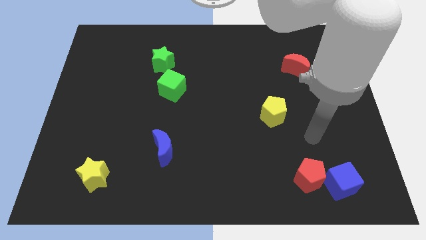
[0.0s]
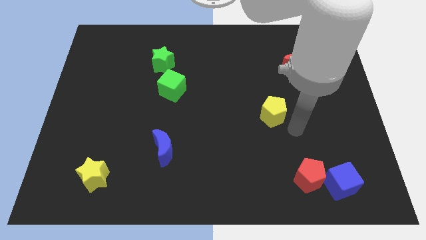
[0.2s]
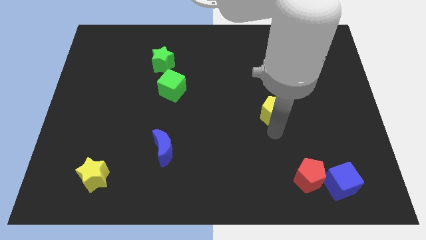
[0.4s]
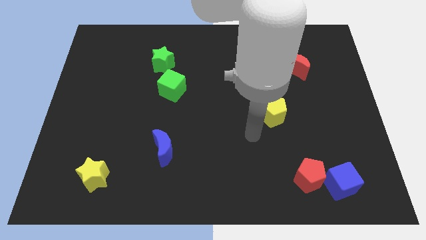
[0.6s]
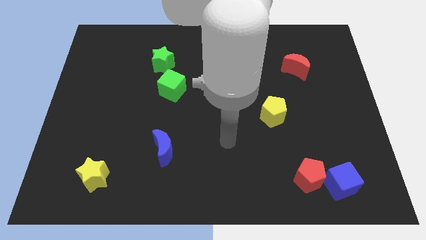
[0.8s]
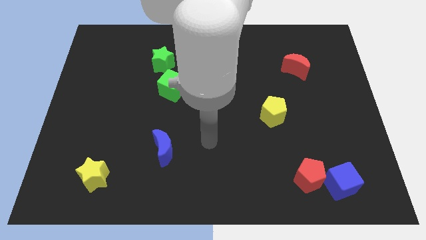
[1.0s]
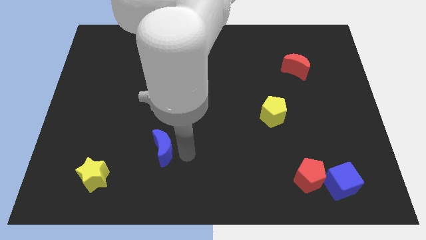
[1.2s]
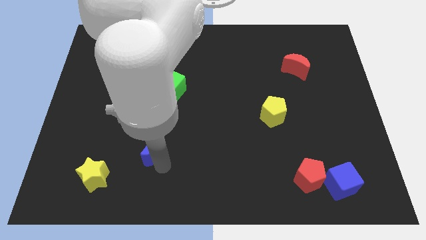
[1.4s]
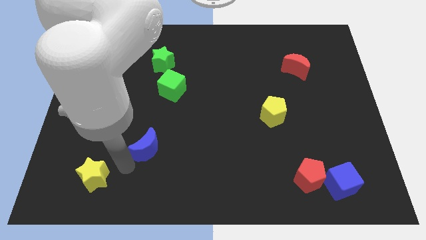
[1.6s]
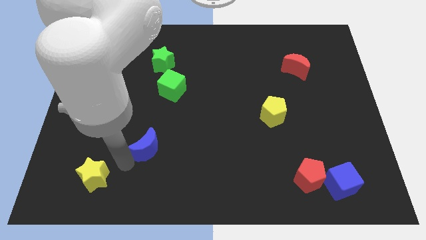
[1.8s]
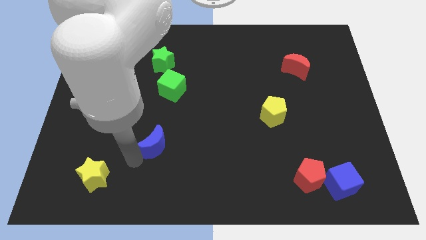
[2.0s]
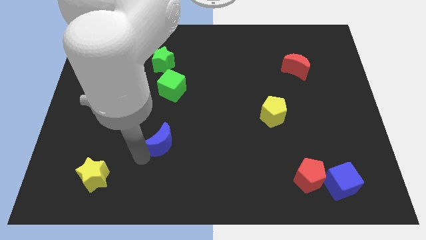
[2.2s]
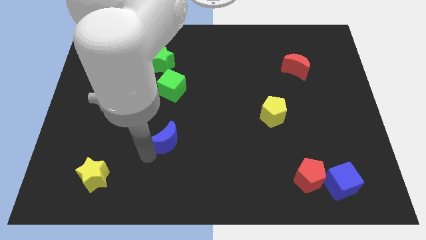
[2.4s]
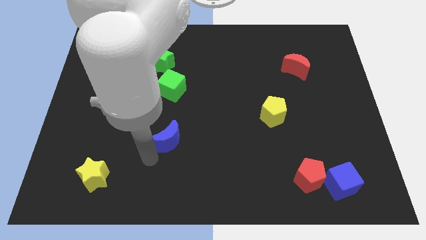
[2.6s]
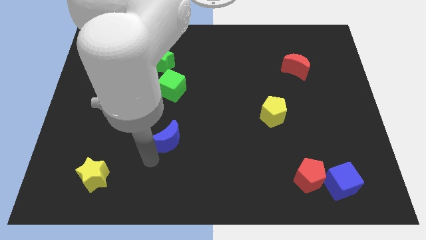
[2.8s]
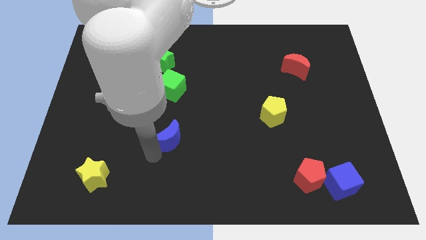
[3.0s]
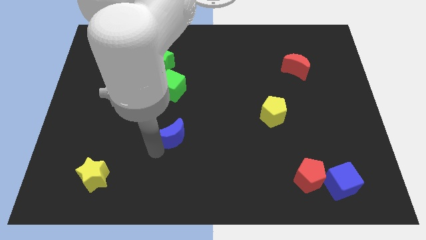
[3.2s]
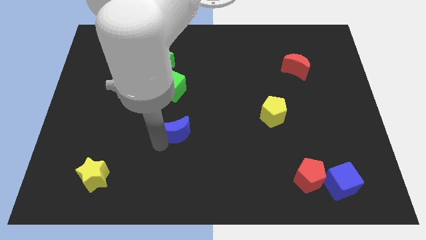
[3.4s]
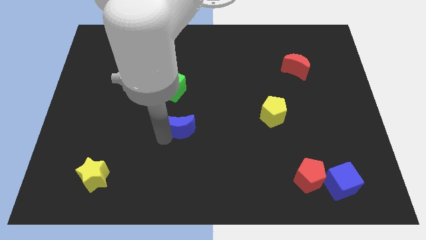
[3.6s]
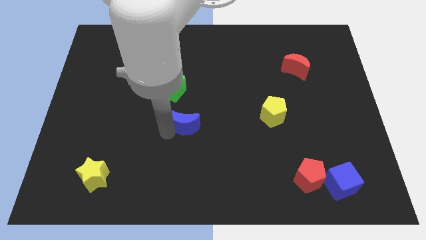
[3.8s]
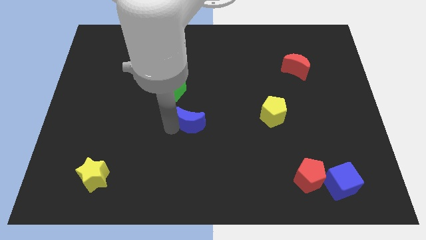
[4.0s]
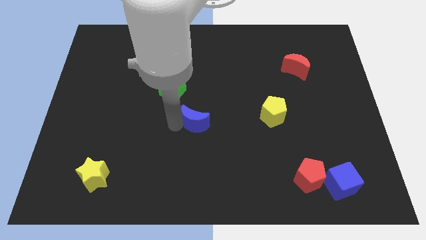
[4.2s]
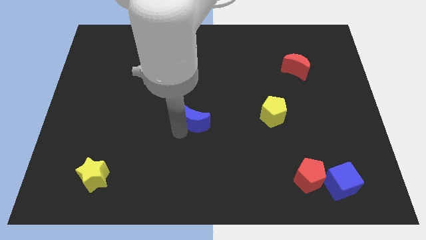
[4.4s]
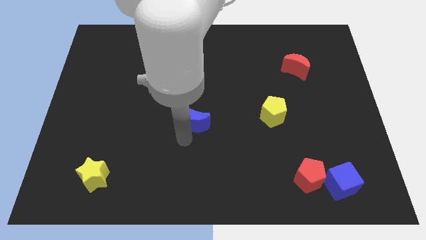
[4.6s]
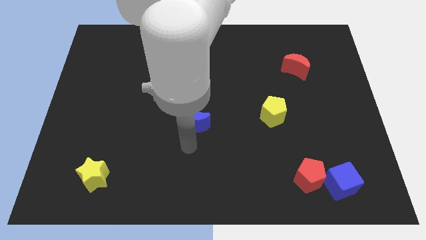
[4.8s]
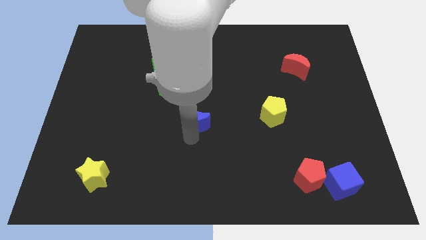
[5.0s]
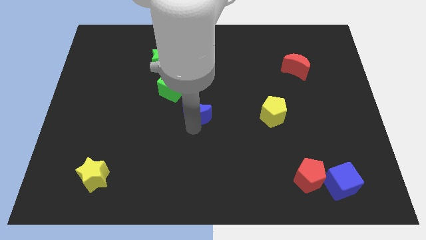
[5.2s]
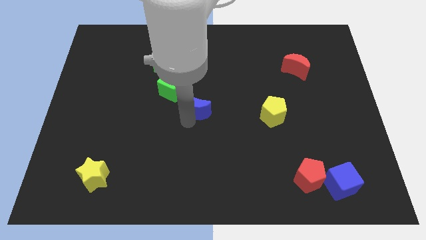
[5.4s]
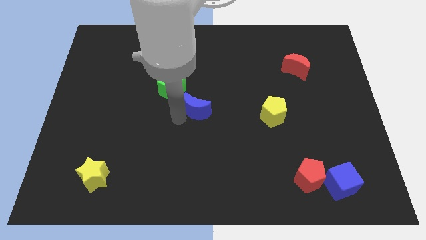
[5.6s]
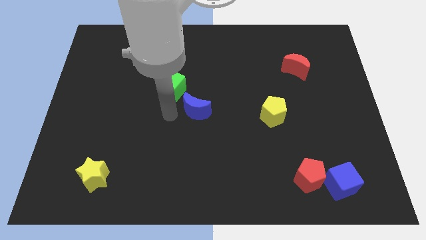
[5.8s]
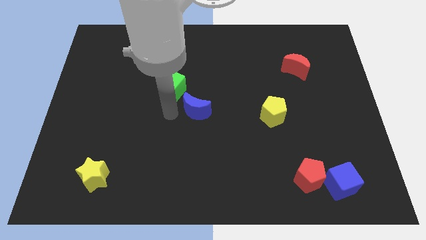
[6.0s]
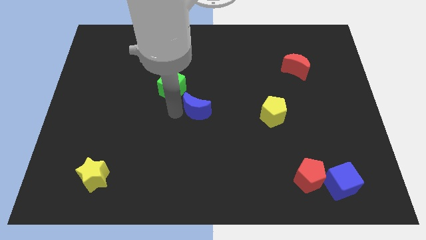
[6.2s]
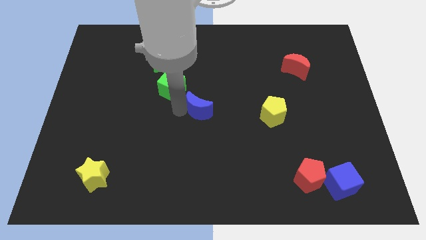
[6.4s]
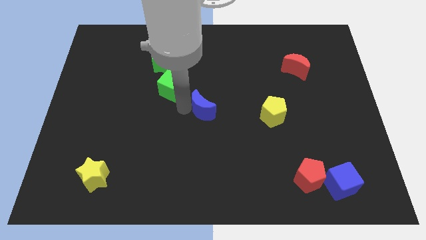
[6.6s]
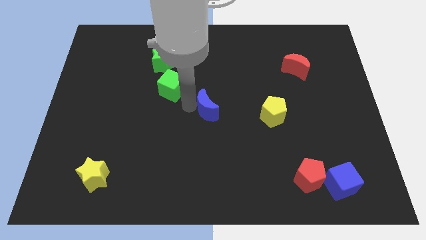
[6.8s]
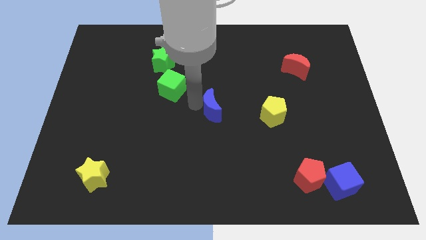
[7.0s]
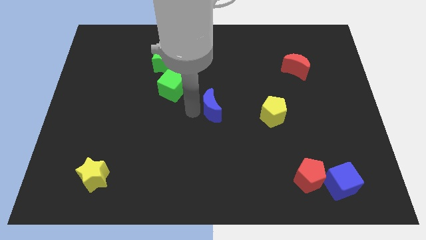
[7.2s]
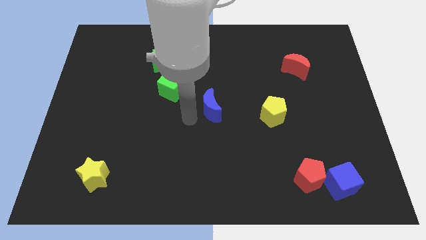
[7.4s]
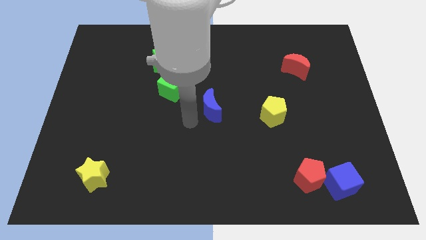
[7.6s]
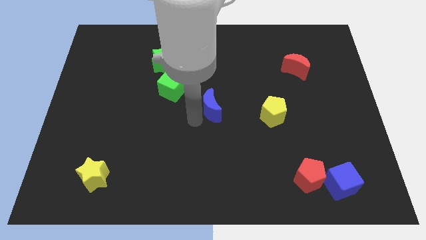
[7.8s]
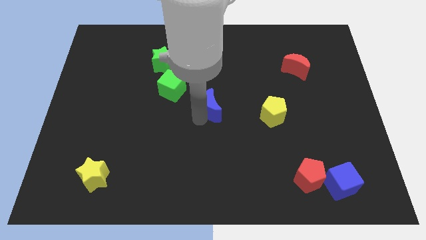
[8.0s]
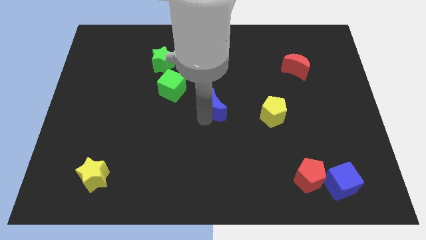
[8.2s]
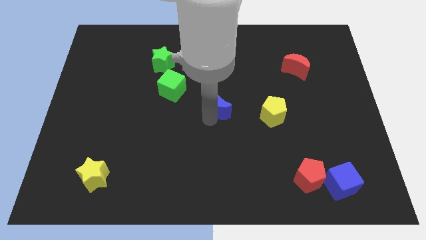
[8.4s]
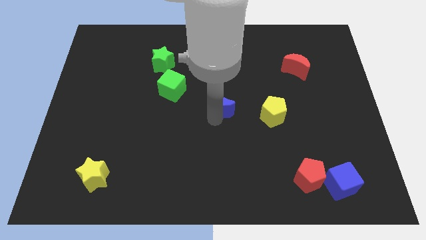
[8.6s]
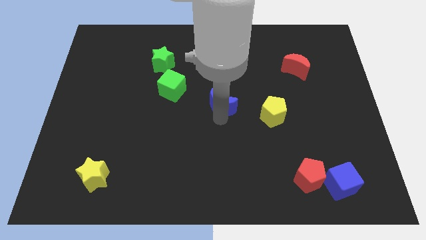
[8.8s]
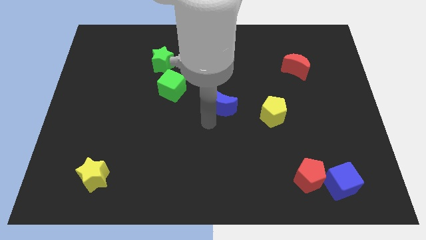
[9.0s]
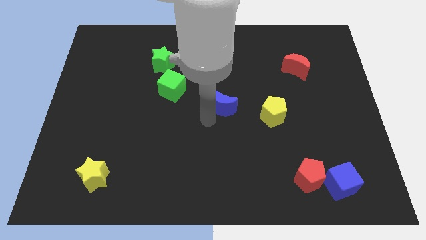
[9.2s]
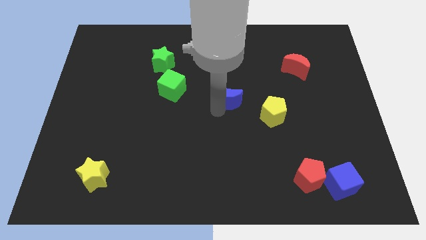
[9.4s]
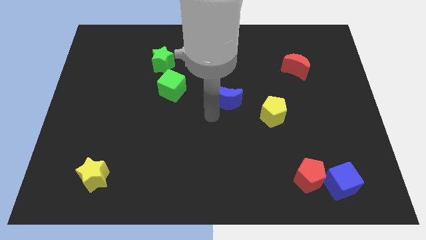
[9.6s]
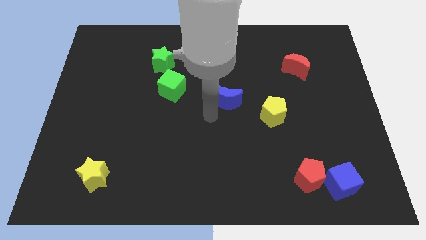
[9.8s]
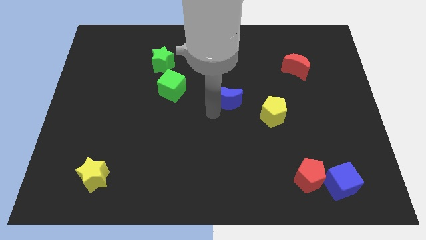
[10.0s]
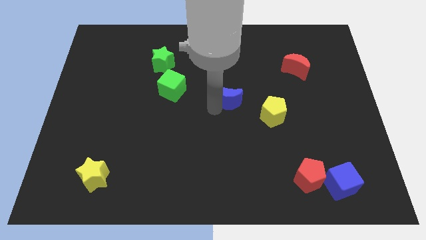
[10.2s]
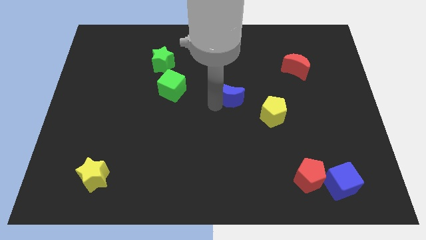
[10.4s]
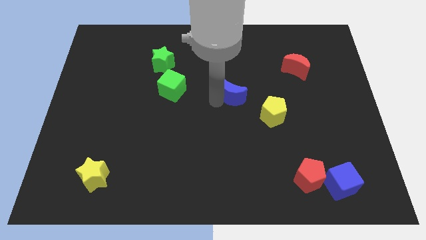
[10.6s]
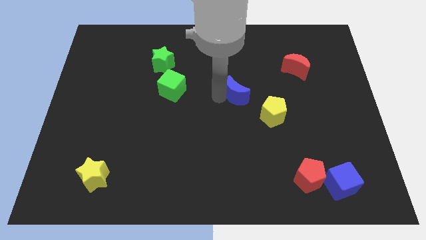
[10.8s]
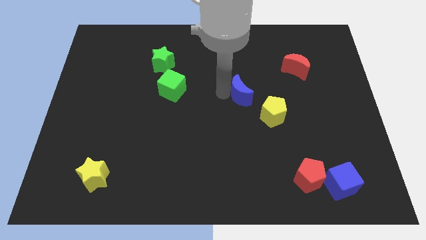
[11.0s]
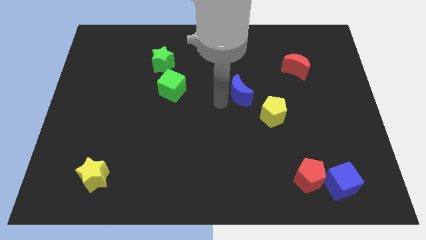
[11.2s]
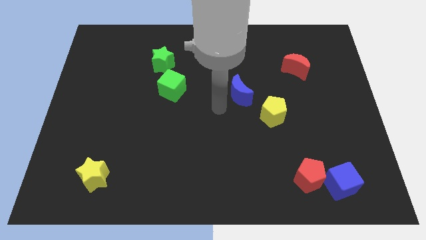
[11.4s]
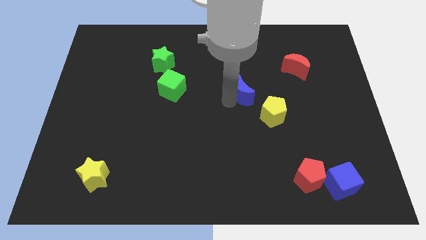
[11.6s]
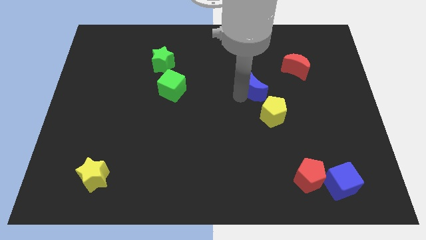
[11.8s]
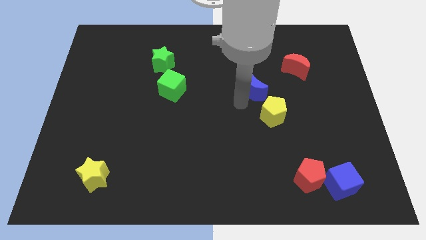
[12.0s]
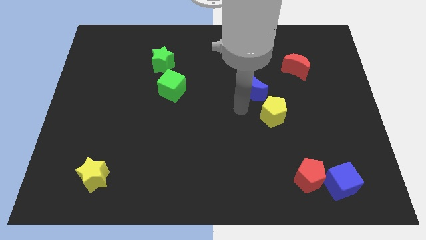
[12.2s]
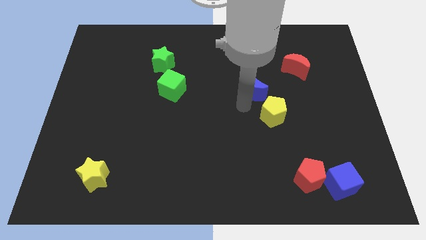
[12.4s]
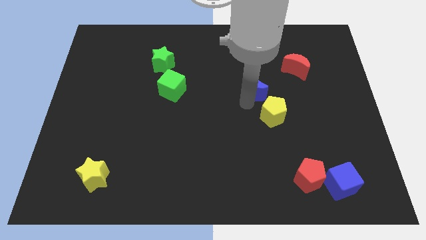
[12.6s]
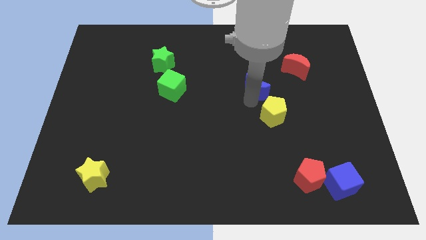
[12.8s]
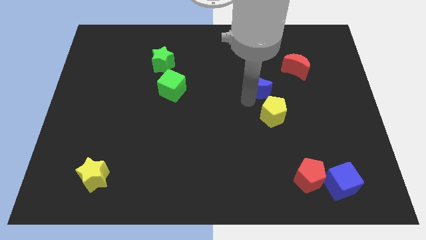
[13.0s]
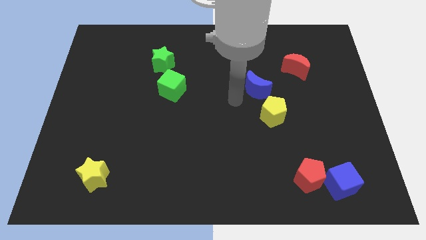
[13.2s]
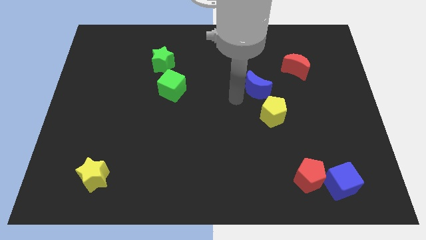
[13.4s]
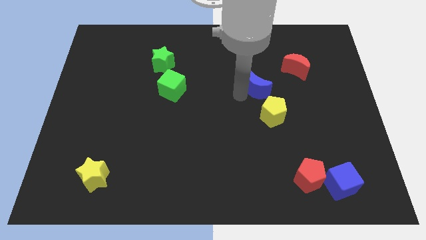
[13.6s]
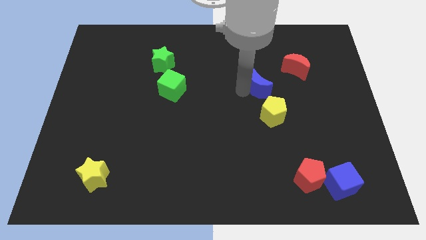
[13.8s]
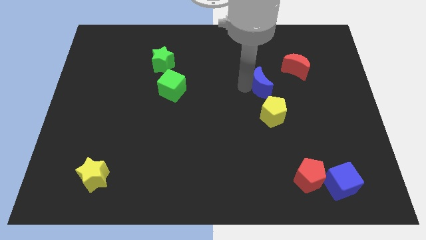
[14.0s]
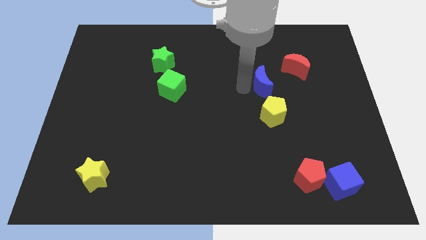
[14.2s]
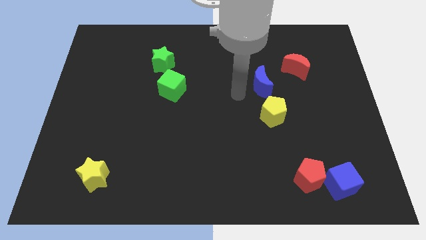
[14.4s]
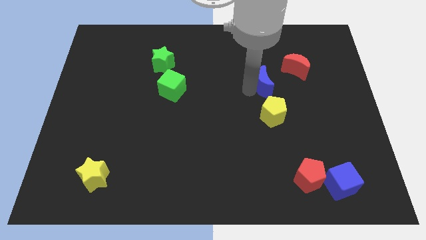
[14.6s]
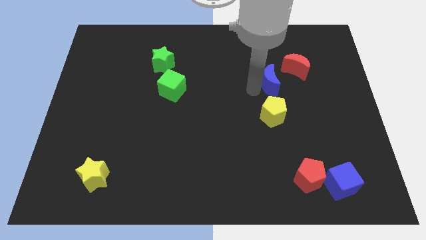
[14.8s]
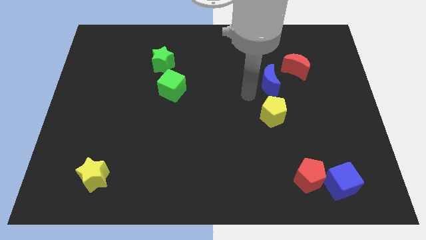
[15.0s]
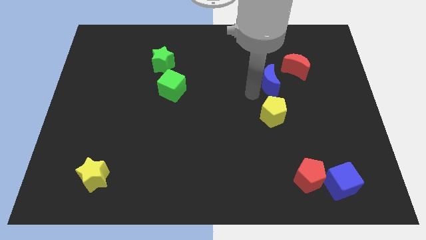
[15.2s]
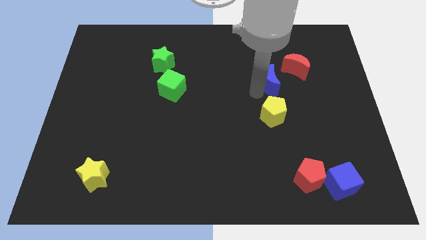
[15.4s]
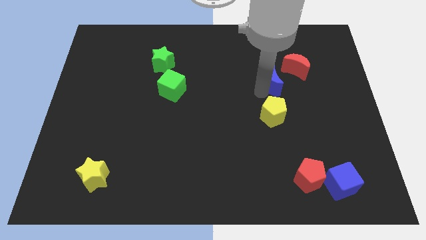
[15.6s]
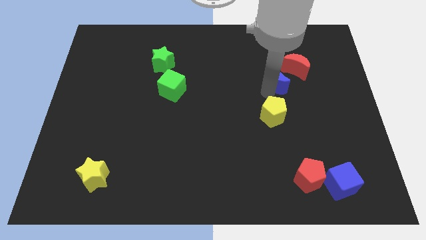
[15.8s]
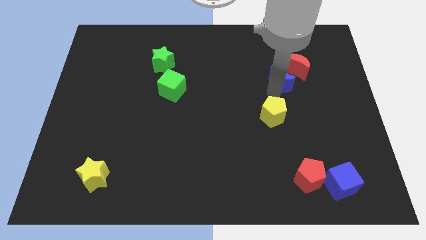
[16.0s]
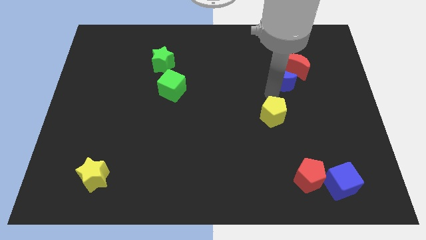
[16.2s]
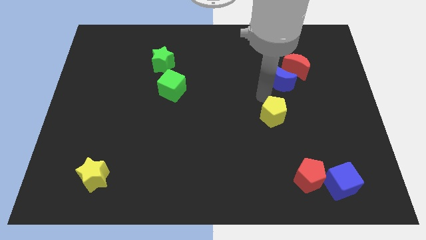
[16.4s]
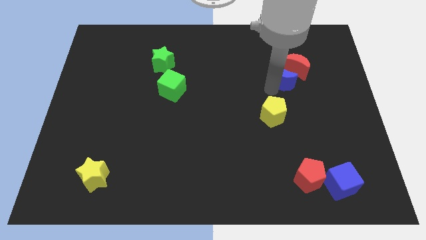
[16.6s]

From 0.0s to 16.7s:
push the blue moon next to the red moon
